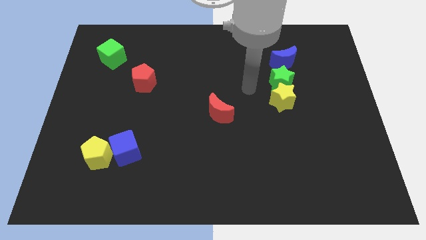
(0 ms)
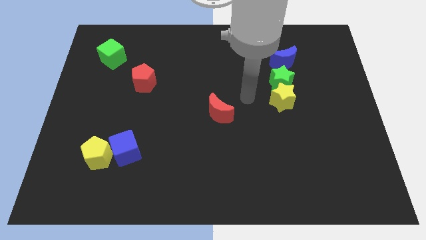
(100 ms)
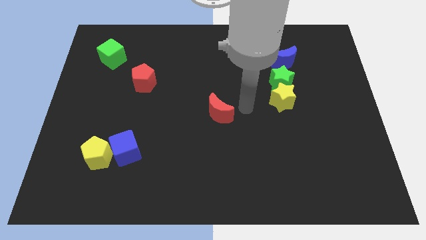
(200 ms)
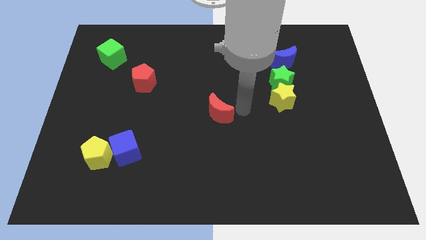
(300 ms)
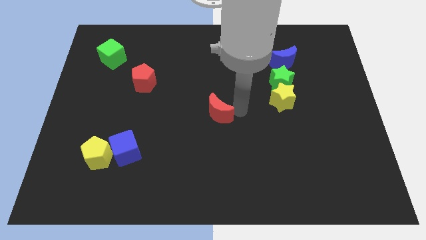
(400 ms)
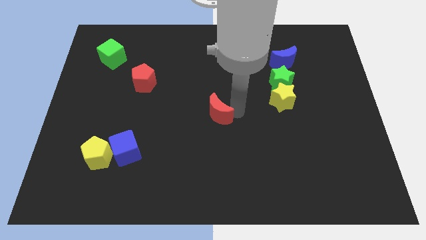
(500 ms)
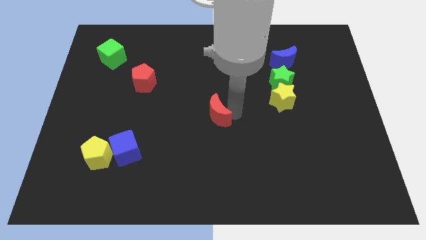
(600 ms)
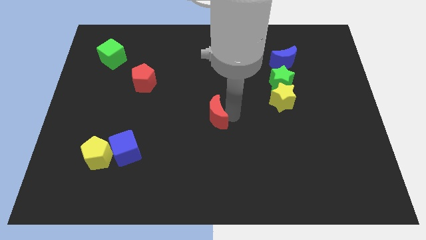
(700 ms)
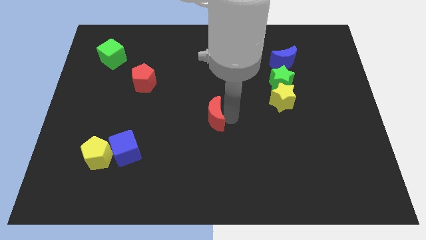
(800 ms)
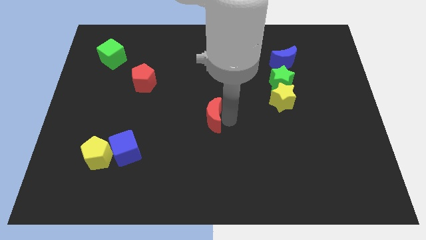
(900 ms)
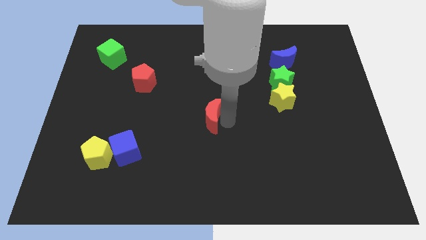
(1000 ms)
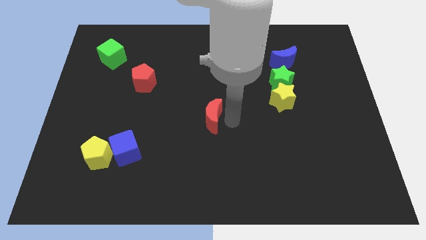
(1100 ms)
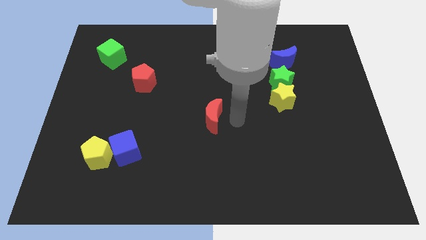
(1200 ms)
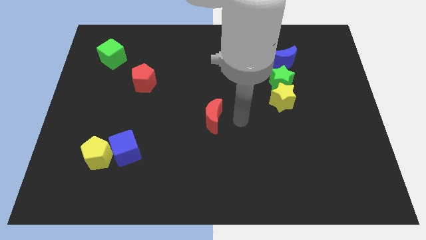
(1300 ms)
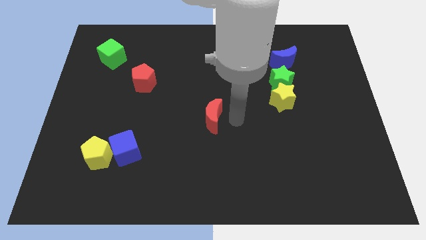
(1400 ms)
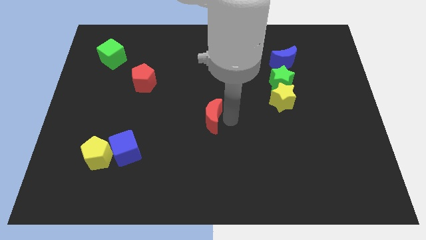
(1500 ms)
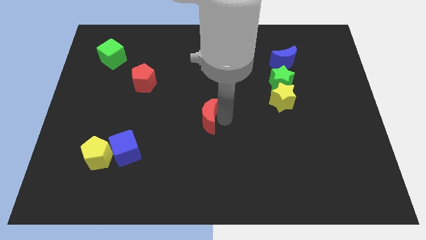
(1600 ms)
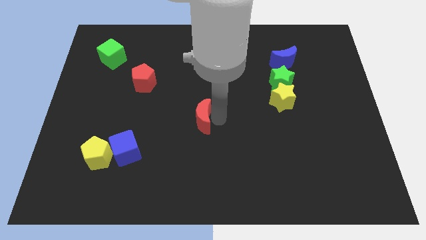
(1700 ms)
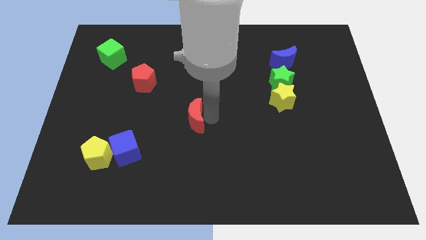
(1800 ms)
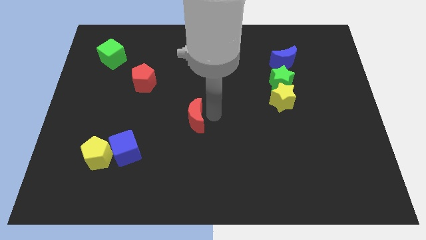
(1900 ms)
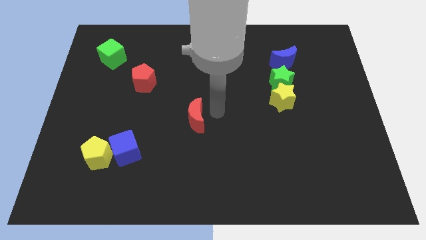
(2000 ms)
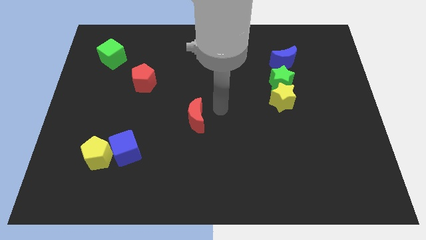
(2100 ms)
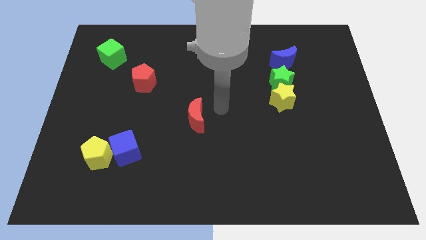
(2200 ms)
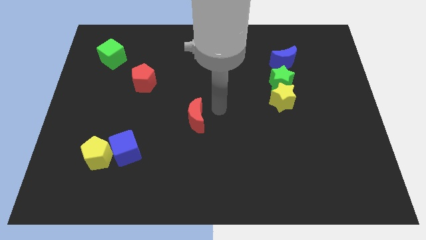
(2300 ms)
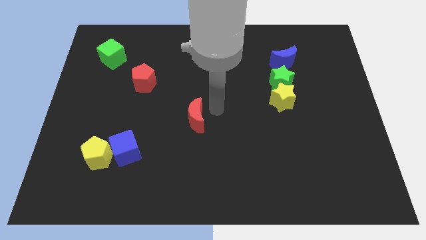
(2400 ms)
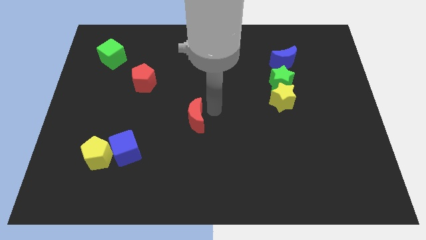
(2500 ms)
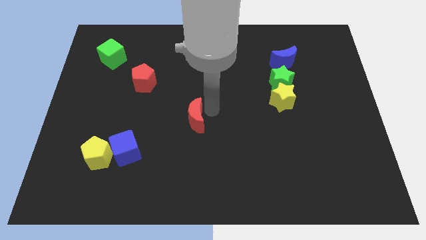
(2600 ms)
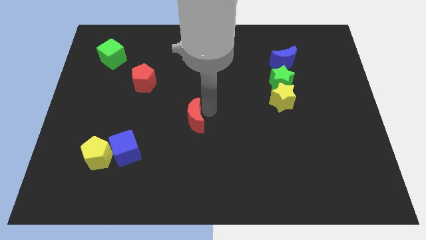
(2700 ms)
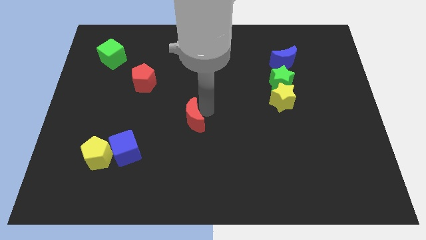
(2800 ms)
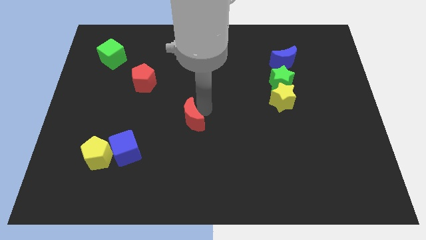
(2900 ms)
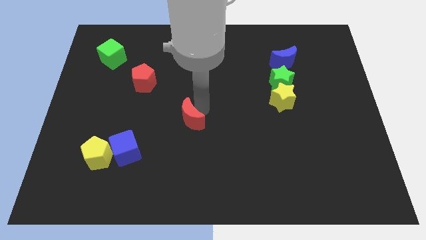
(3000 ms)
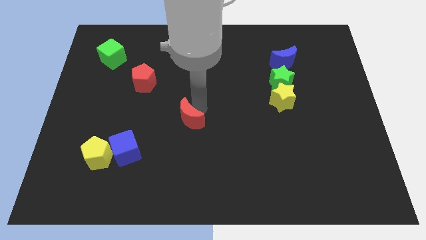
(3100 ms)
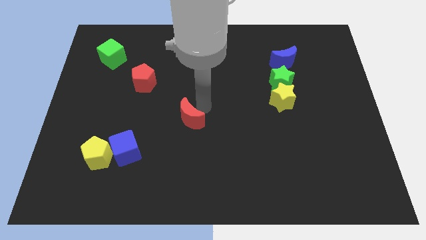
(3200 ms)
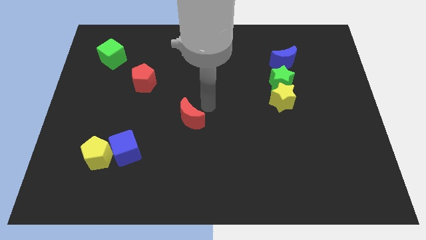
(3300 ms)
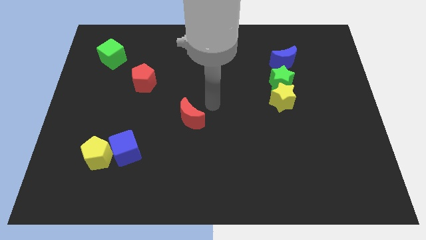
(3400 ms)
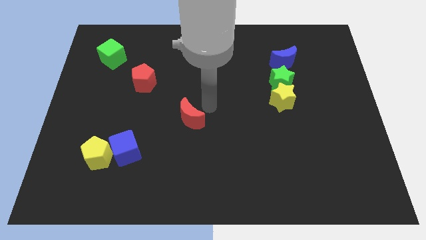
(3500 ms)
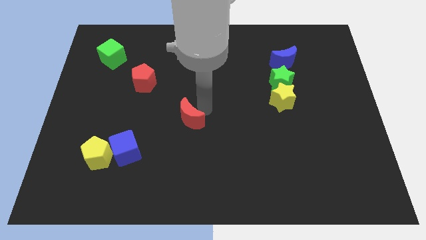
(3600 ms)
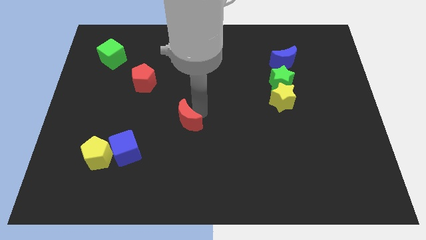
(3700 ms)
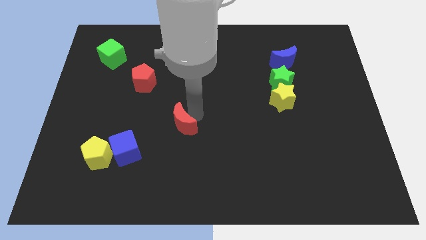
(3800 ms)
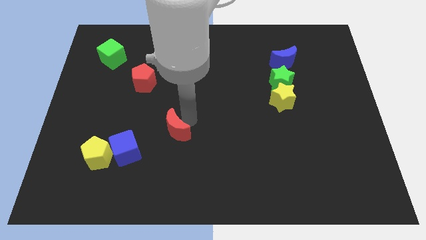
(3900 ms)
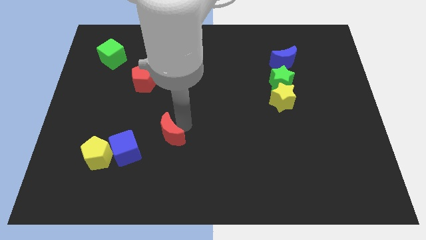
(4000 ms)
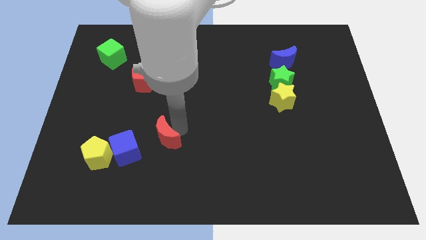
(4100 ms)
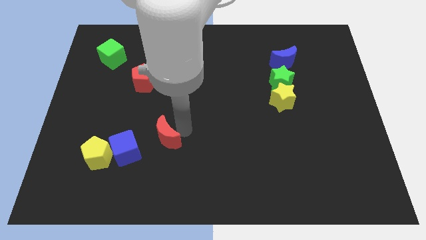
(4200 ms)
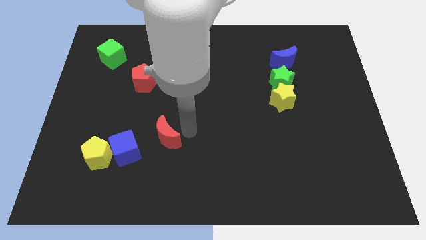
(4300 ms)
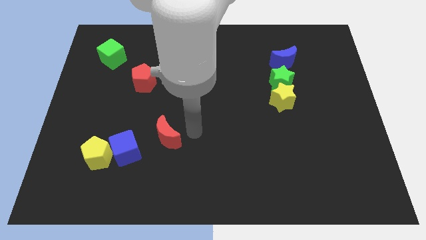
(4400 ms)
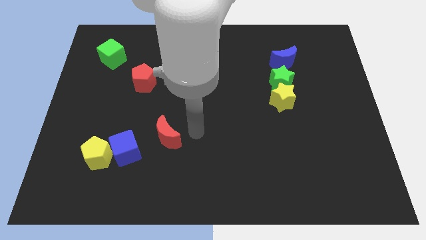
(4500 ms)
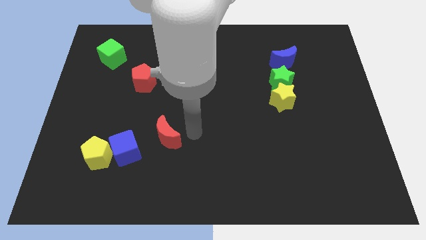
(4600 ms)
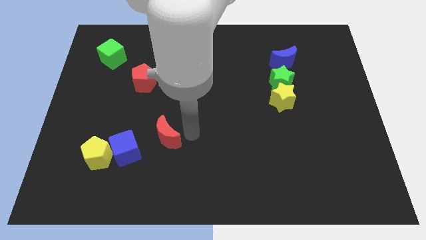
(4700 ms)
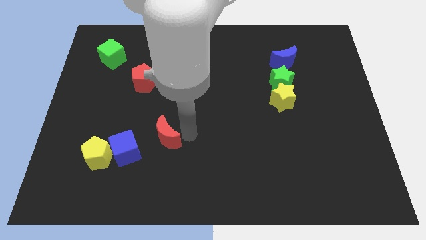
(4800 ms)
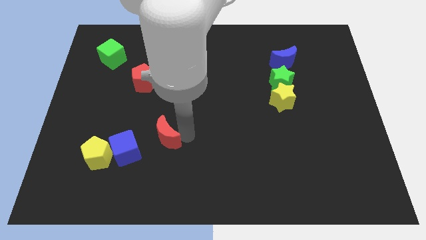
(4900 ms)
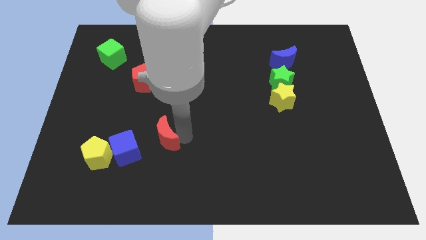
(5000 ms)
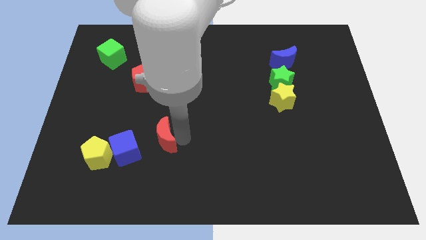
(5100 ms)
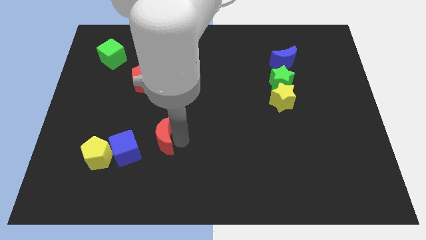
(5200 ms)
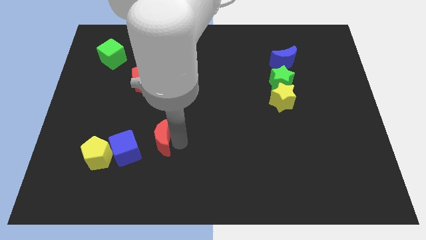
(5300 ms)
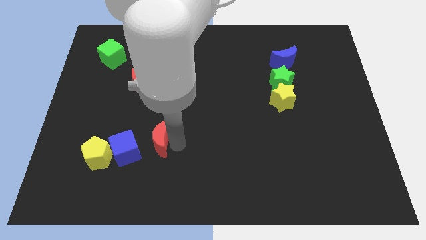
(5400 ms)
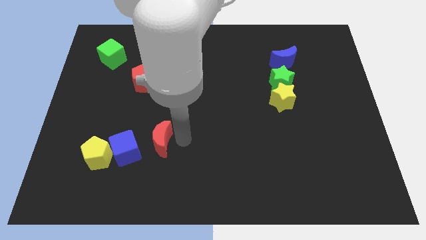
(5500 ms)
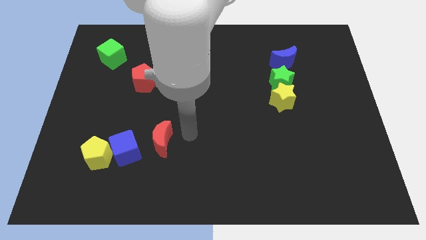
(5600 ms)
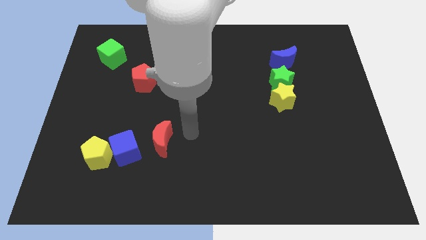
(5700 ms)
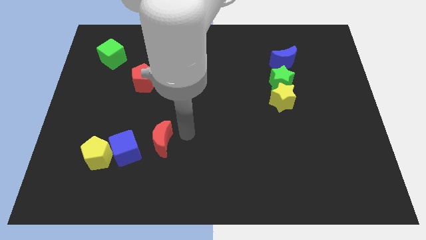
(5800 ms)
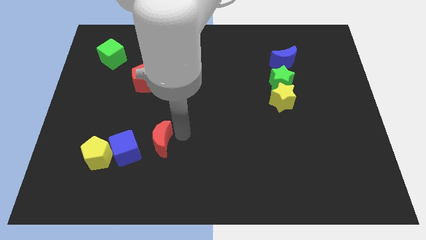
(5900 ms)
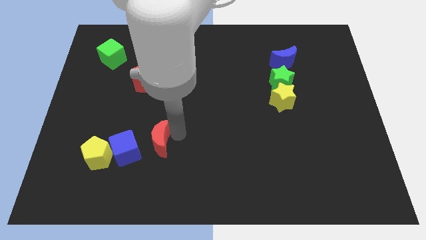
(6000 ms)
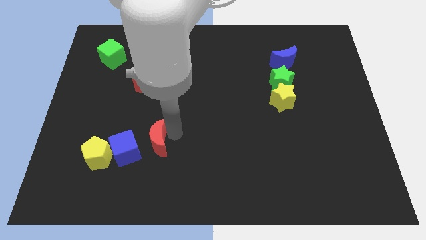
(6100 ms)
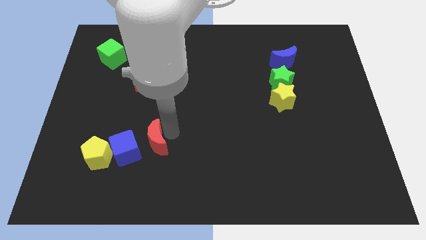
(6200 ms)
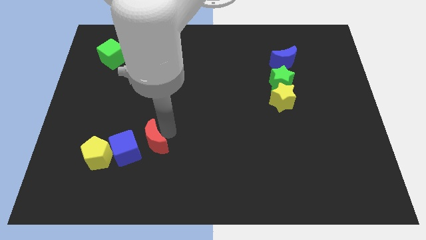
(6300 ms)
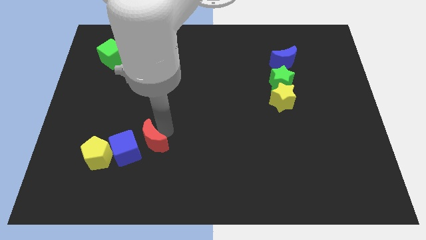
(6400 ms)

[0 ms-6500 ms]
move the red moon to the blue cube

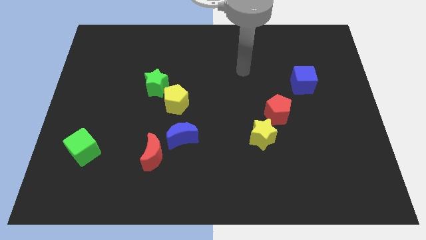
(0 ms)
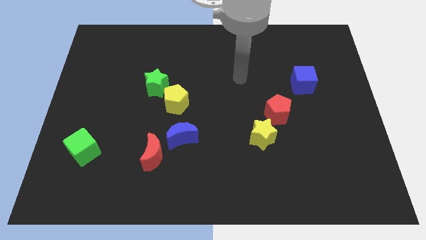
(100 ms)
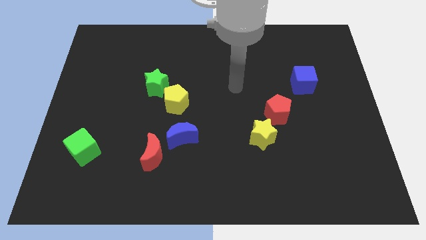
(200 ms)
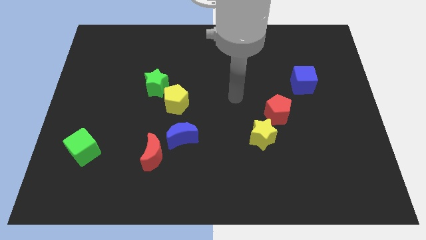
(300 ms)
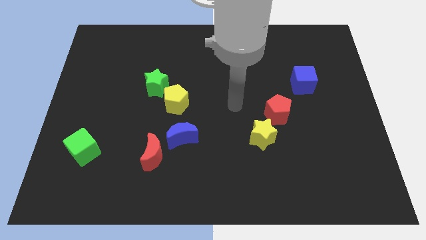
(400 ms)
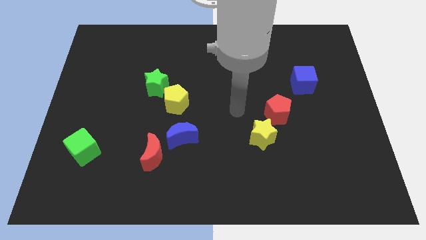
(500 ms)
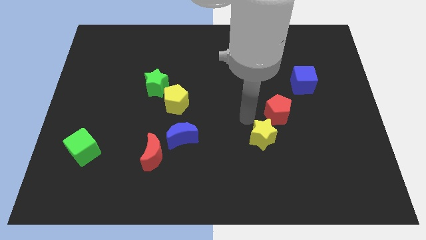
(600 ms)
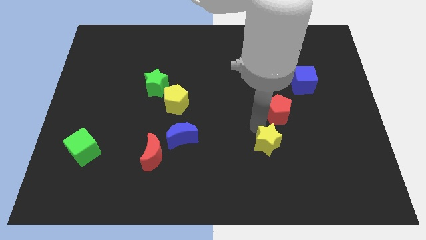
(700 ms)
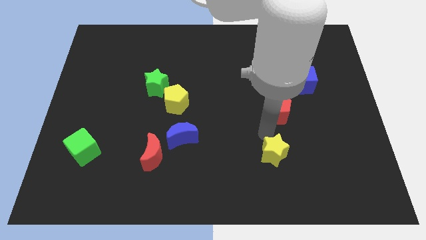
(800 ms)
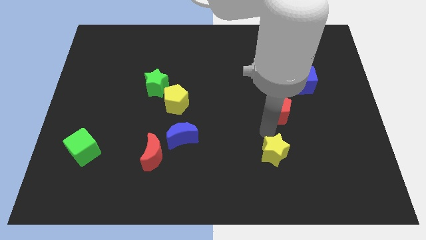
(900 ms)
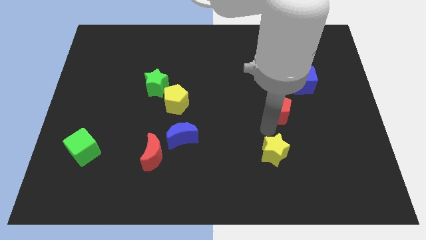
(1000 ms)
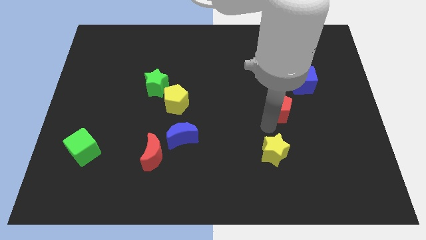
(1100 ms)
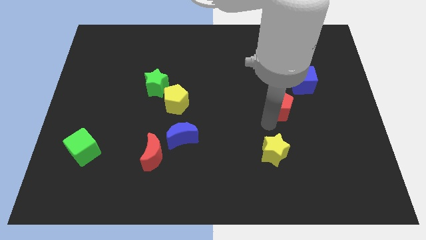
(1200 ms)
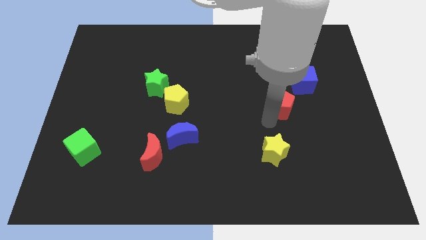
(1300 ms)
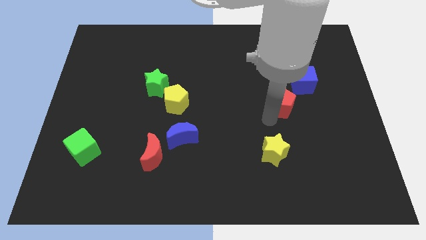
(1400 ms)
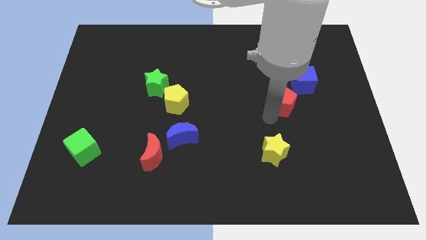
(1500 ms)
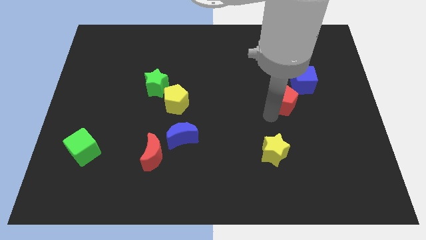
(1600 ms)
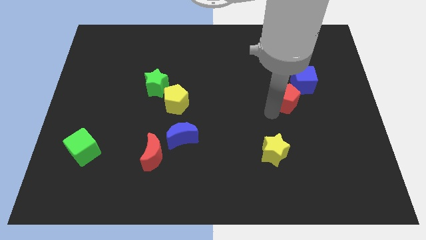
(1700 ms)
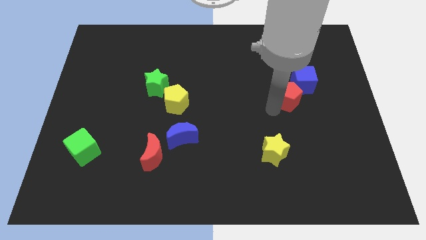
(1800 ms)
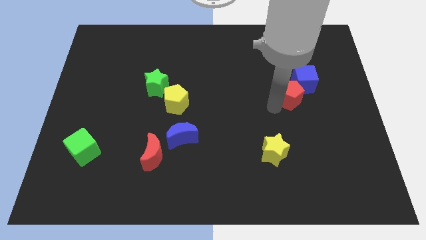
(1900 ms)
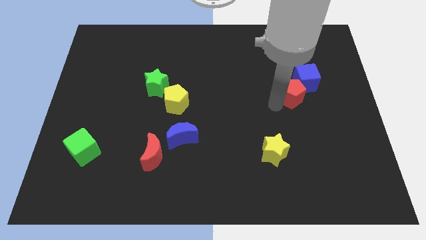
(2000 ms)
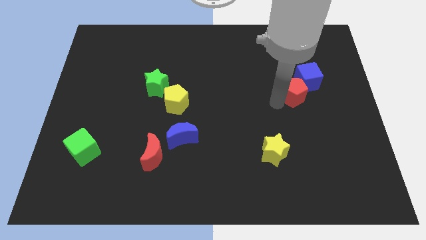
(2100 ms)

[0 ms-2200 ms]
put the red pentagon next to the blue cube
